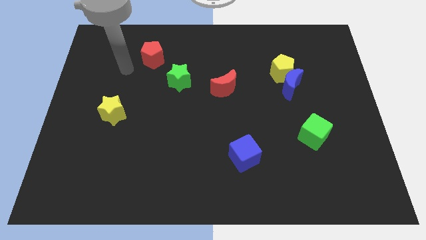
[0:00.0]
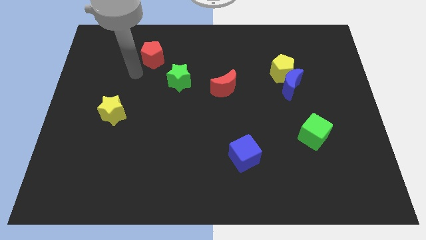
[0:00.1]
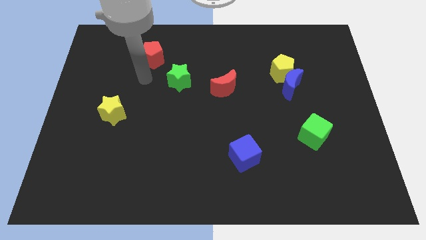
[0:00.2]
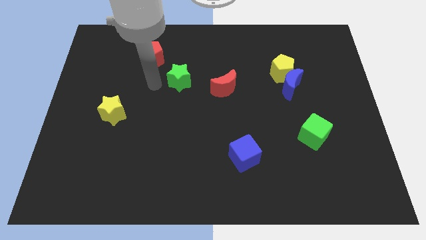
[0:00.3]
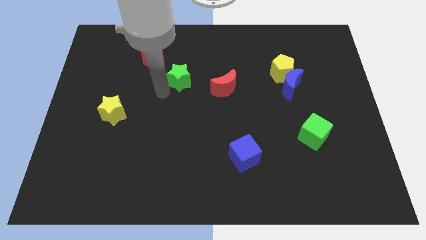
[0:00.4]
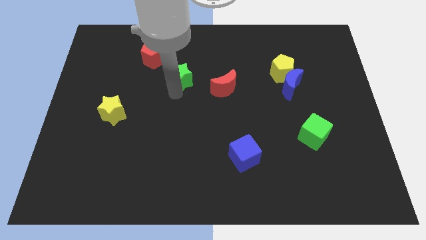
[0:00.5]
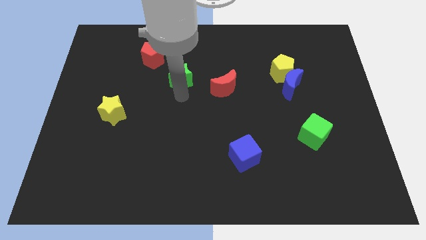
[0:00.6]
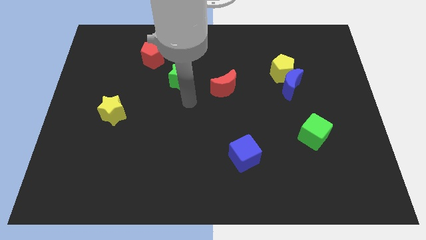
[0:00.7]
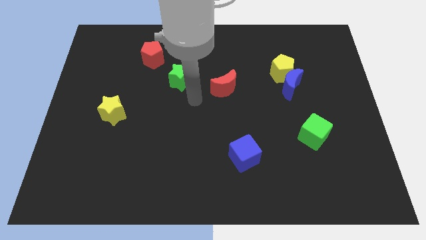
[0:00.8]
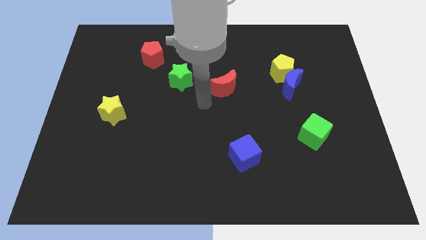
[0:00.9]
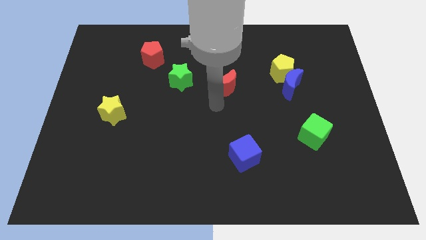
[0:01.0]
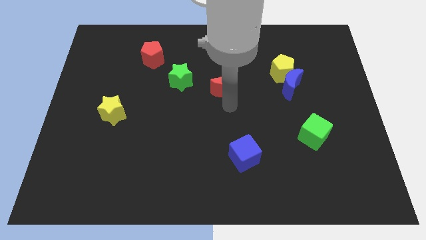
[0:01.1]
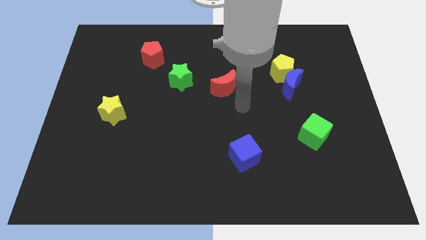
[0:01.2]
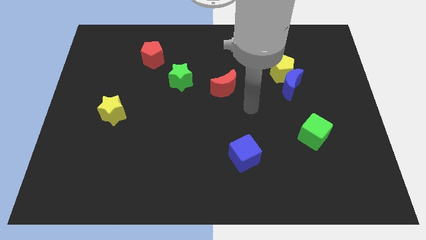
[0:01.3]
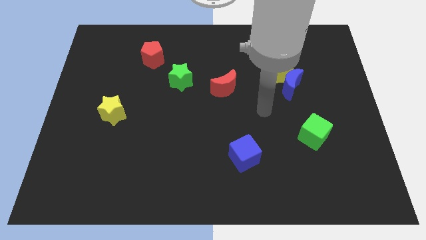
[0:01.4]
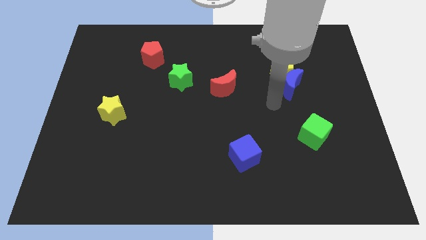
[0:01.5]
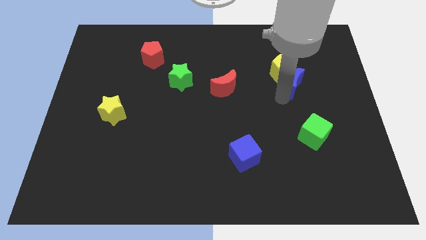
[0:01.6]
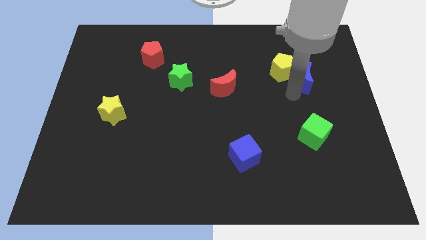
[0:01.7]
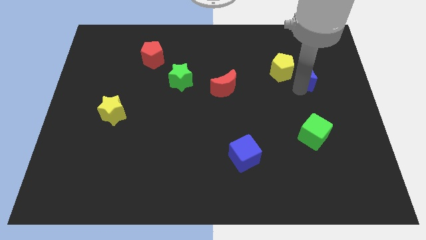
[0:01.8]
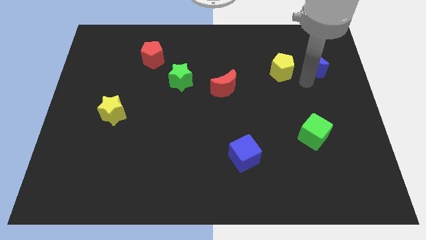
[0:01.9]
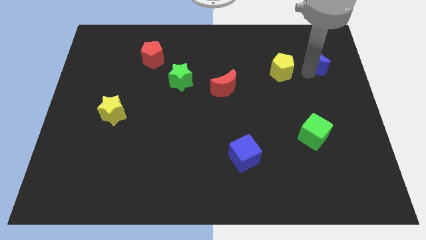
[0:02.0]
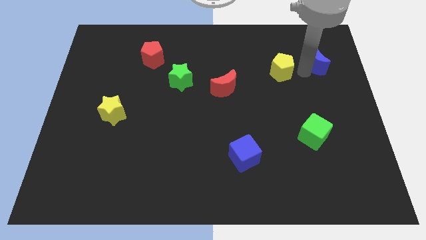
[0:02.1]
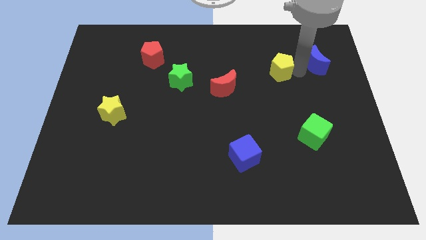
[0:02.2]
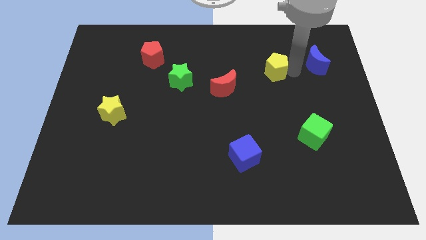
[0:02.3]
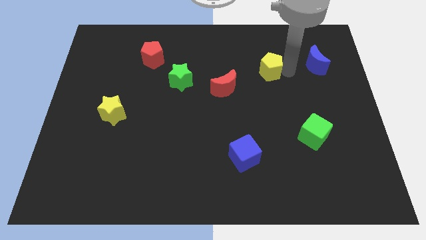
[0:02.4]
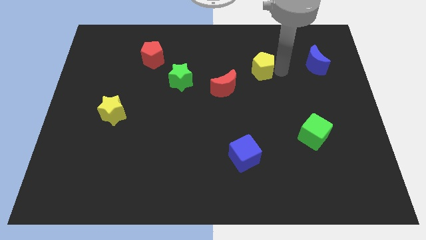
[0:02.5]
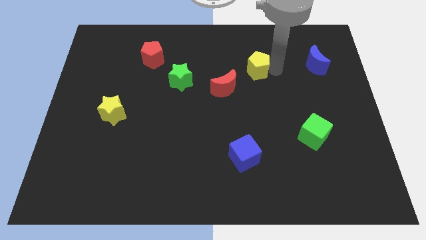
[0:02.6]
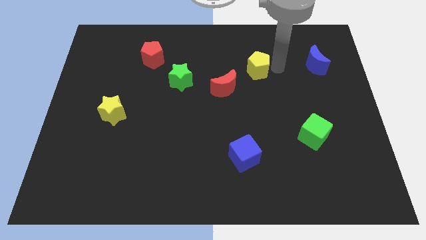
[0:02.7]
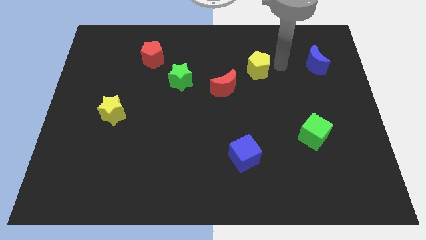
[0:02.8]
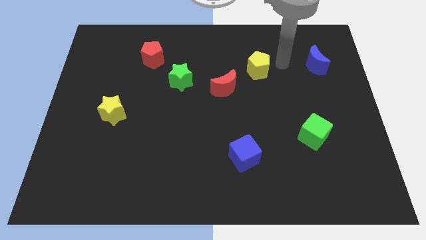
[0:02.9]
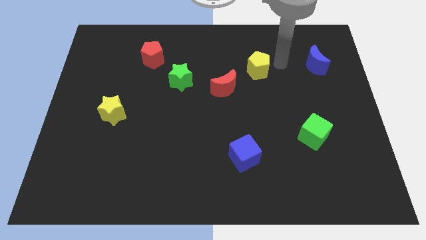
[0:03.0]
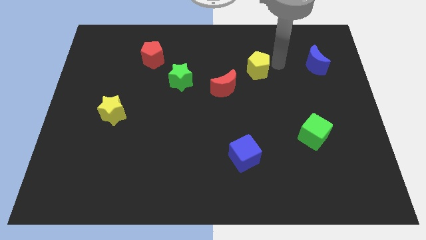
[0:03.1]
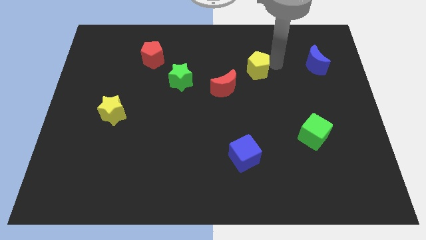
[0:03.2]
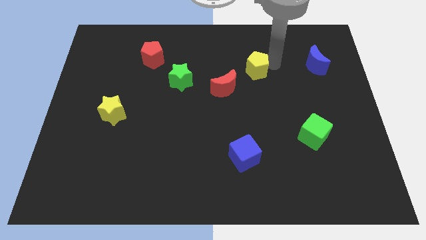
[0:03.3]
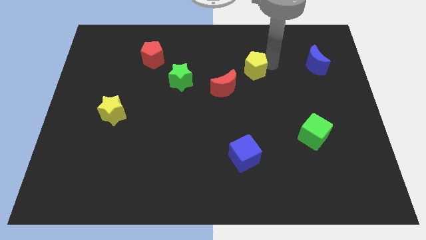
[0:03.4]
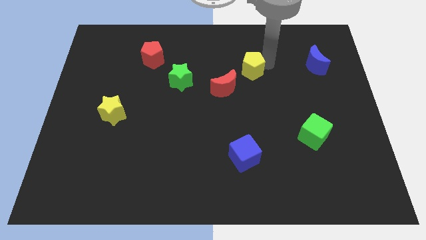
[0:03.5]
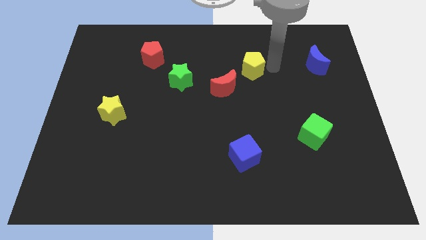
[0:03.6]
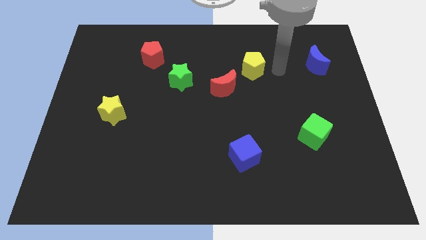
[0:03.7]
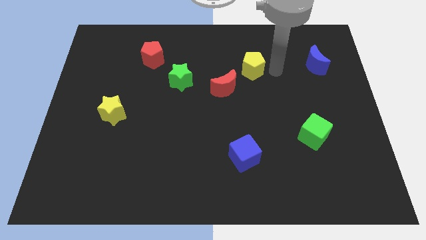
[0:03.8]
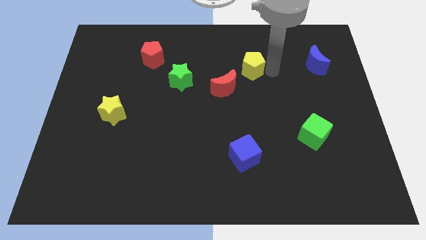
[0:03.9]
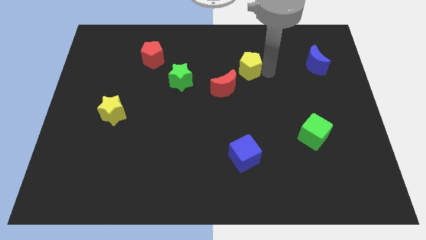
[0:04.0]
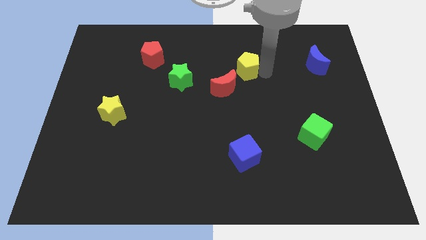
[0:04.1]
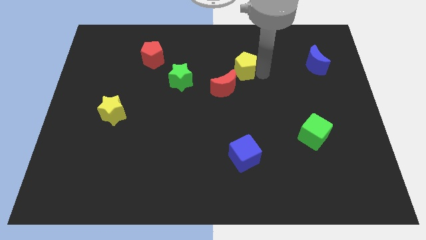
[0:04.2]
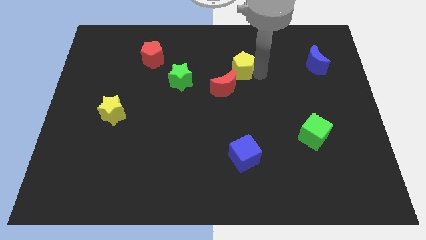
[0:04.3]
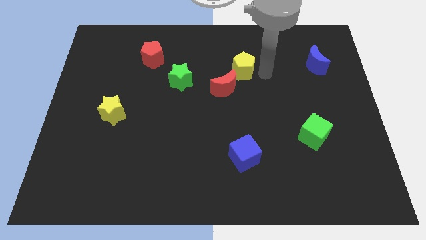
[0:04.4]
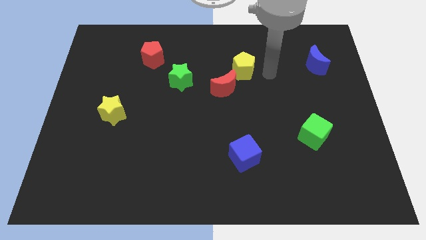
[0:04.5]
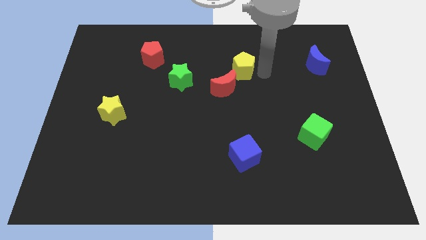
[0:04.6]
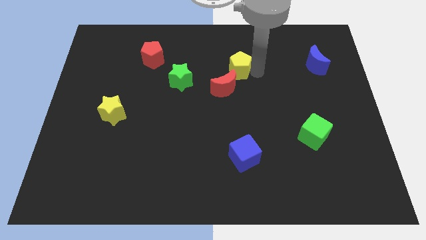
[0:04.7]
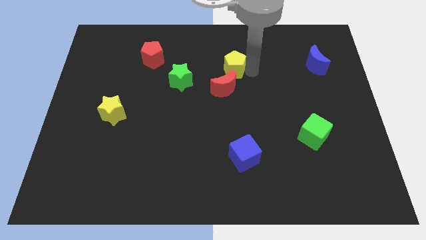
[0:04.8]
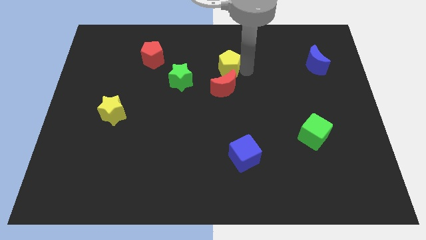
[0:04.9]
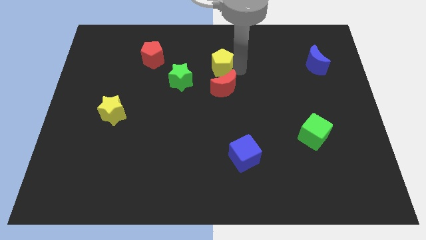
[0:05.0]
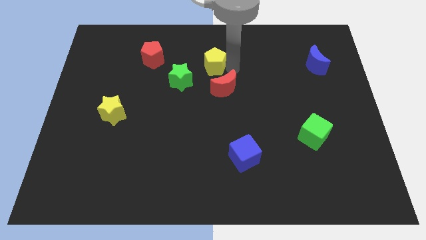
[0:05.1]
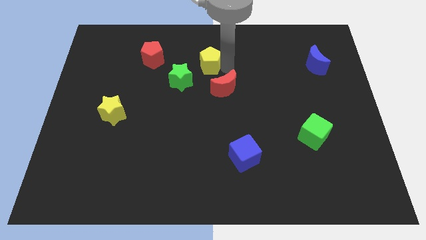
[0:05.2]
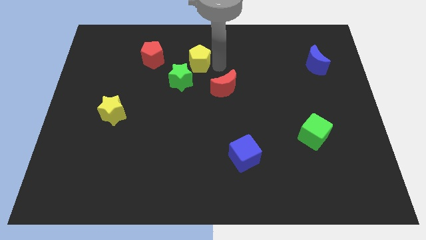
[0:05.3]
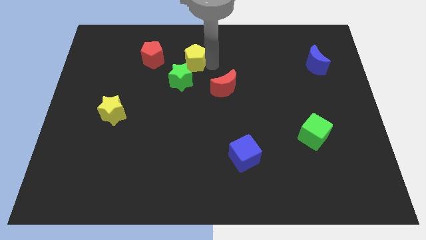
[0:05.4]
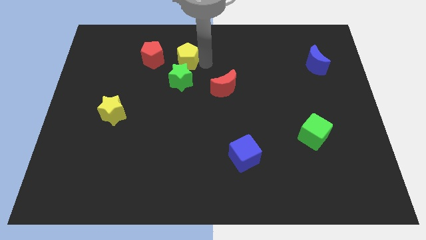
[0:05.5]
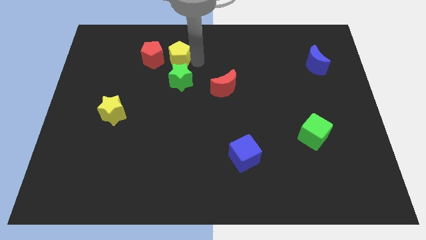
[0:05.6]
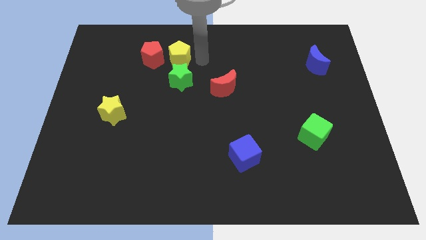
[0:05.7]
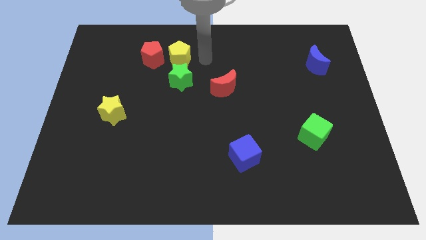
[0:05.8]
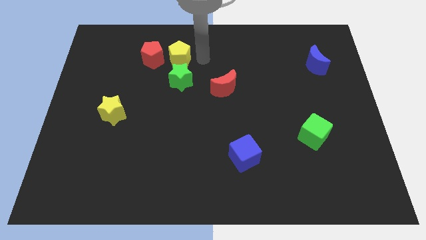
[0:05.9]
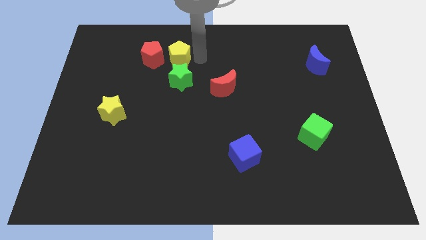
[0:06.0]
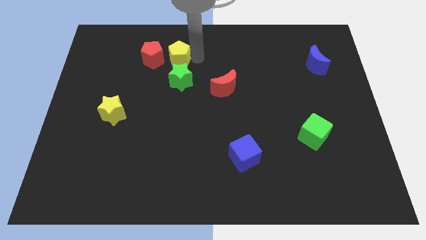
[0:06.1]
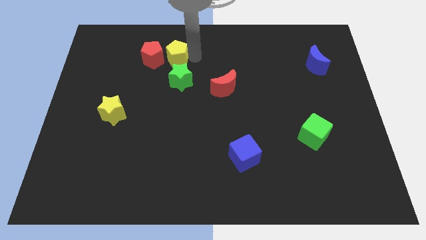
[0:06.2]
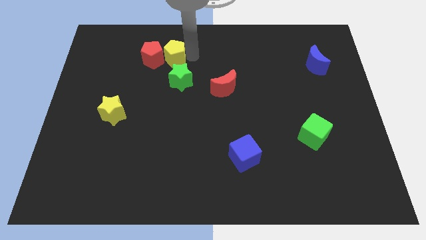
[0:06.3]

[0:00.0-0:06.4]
put the yellow pentagon next to the red pentagon
